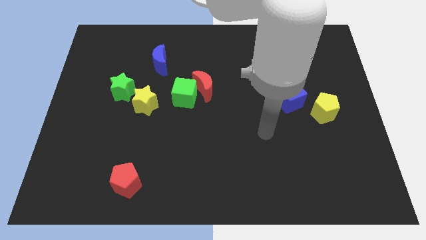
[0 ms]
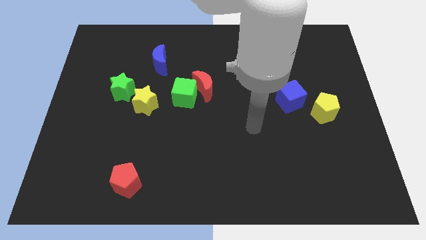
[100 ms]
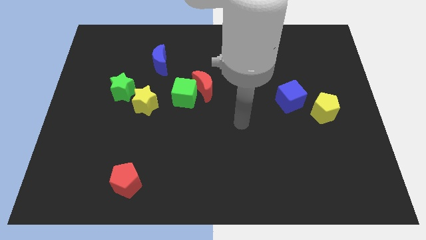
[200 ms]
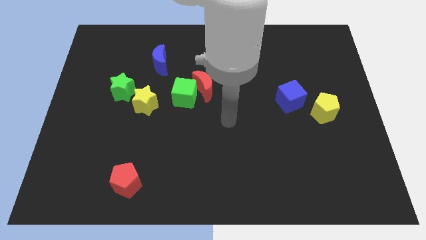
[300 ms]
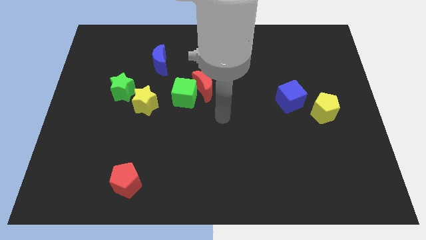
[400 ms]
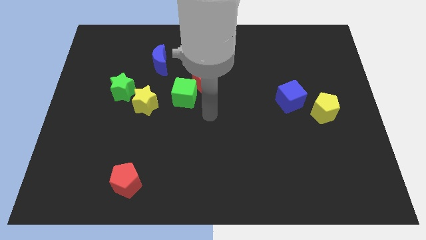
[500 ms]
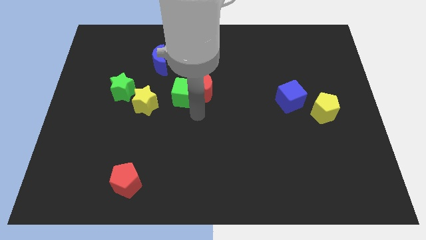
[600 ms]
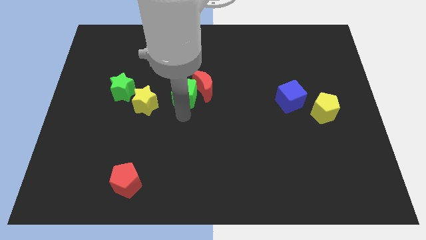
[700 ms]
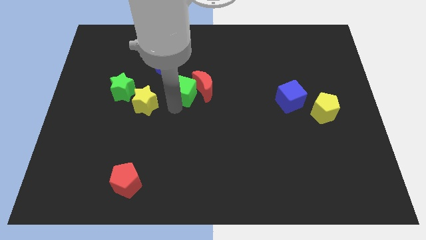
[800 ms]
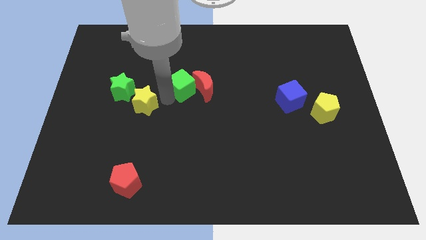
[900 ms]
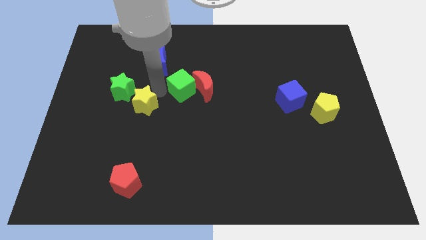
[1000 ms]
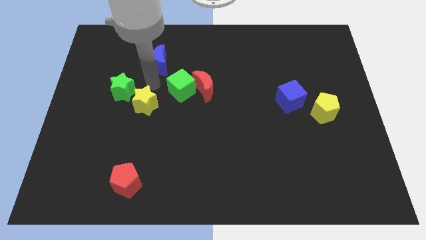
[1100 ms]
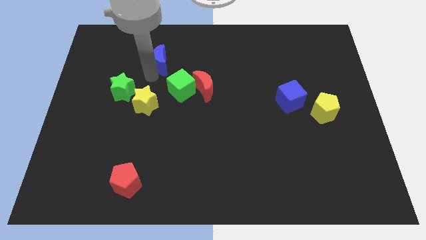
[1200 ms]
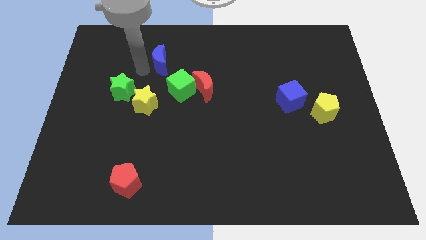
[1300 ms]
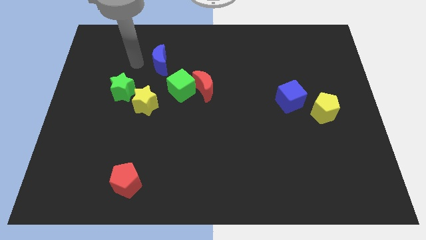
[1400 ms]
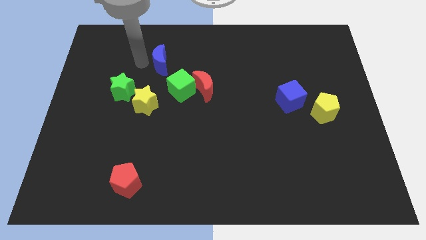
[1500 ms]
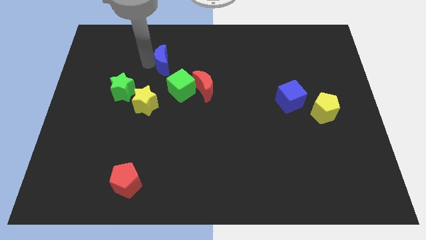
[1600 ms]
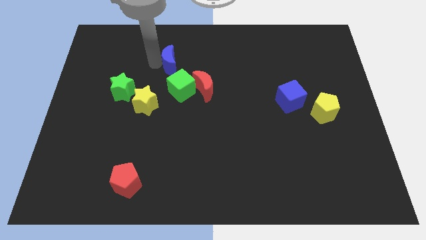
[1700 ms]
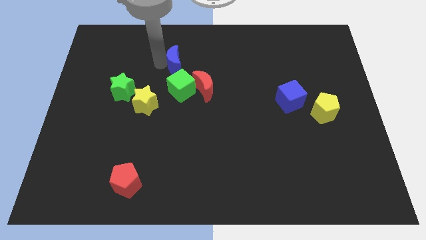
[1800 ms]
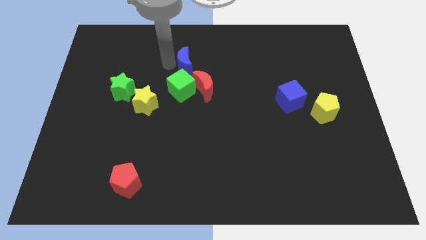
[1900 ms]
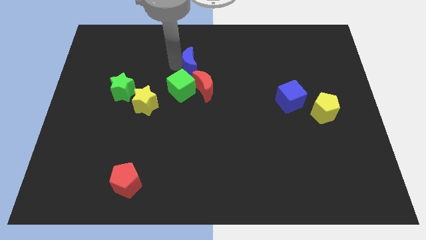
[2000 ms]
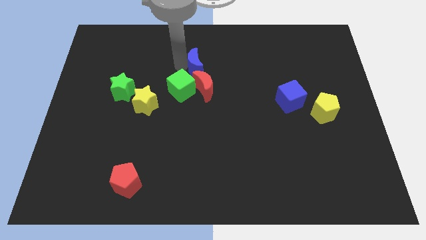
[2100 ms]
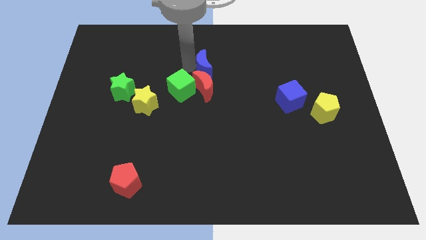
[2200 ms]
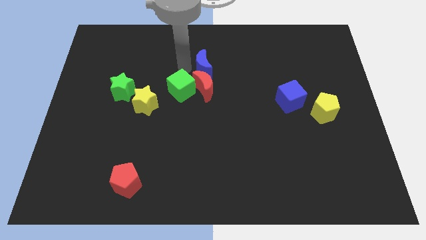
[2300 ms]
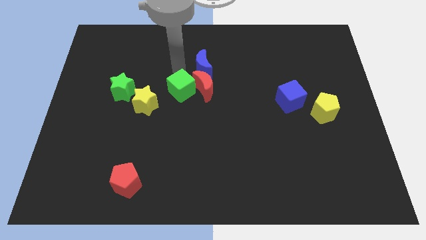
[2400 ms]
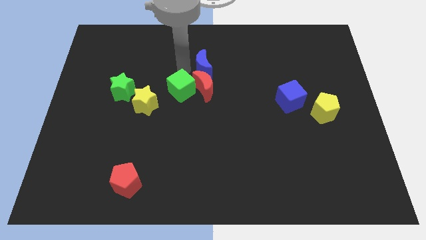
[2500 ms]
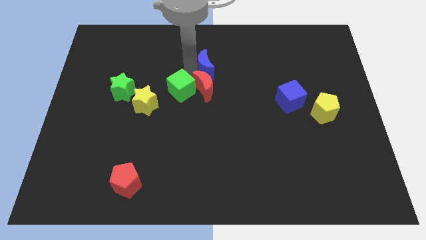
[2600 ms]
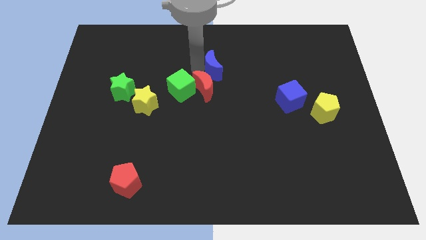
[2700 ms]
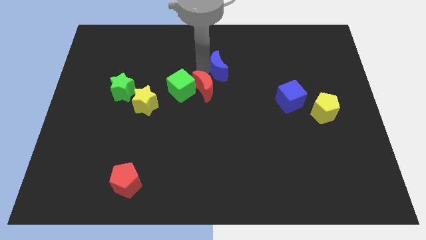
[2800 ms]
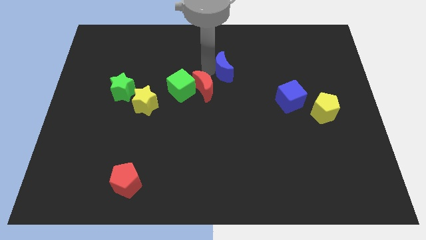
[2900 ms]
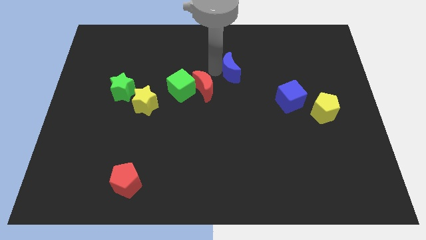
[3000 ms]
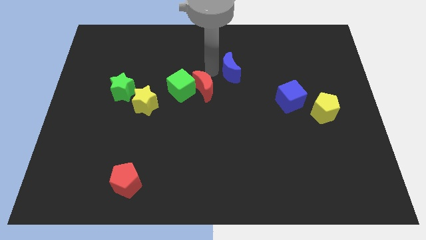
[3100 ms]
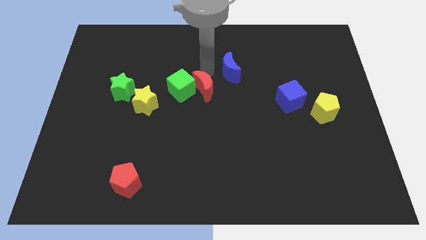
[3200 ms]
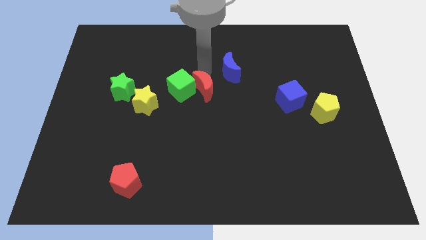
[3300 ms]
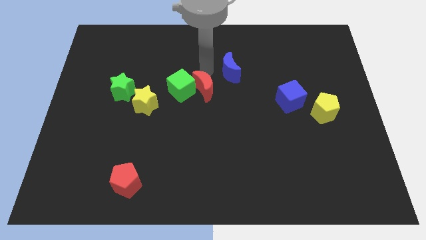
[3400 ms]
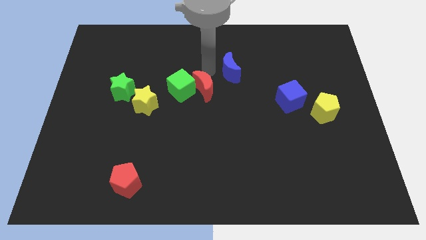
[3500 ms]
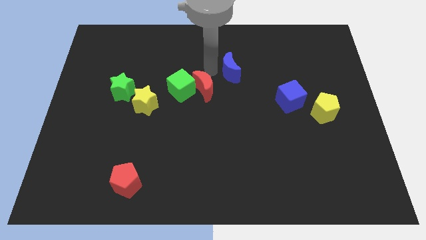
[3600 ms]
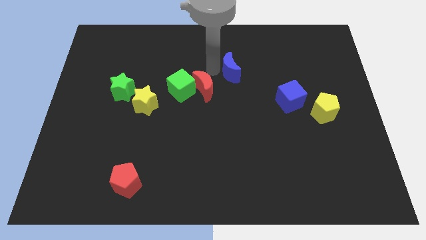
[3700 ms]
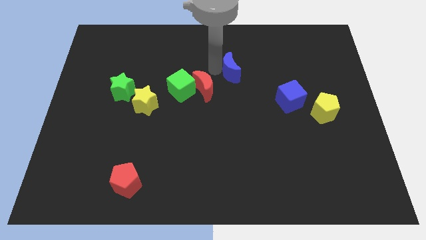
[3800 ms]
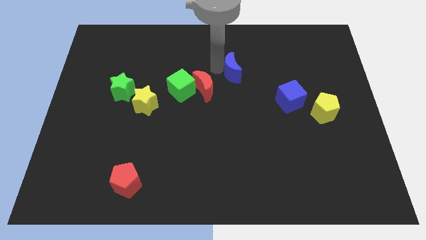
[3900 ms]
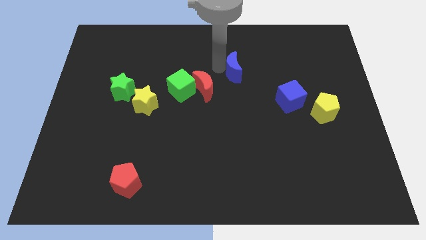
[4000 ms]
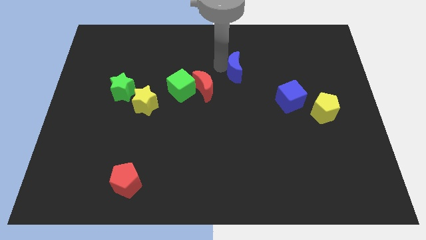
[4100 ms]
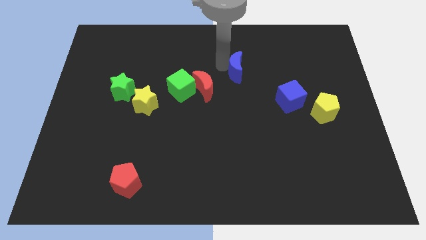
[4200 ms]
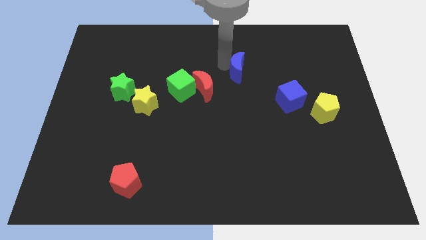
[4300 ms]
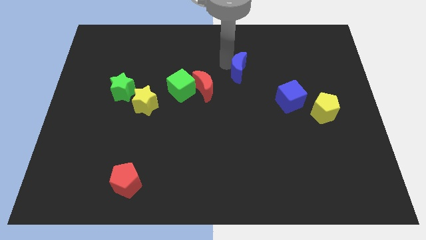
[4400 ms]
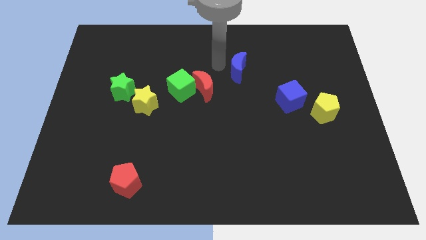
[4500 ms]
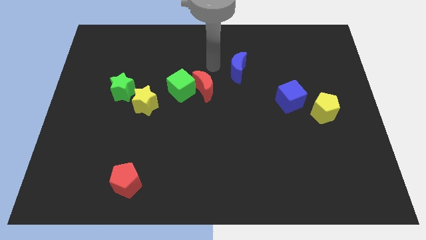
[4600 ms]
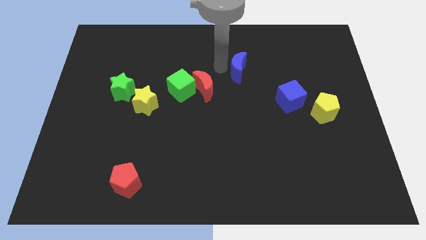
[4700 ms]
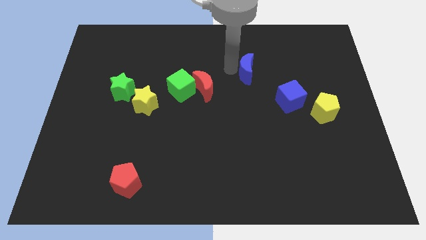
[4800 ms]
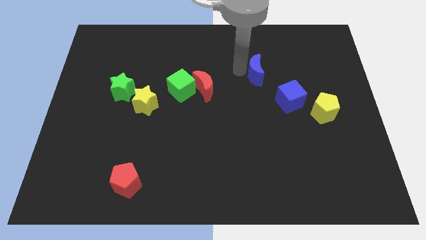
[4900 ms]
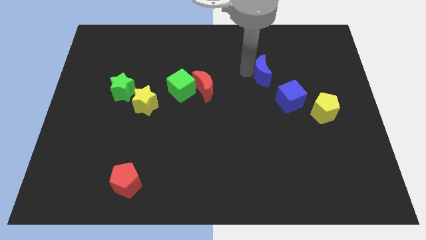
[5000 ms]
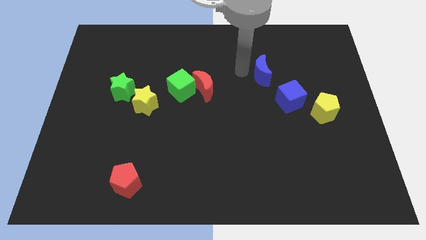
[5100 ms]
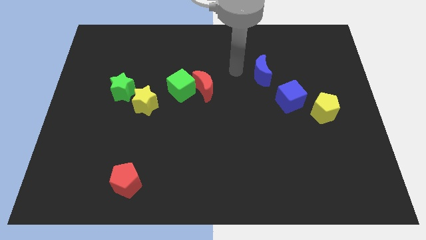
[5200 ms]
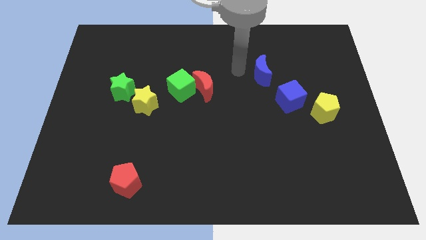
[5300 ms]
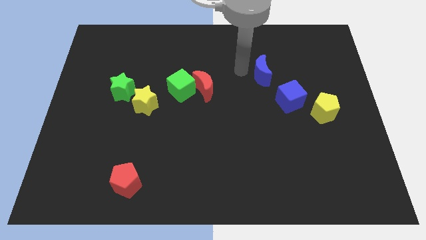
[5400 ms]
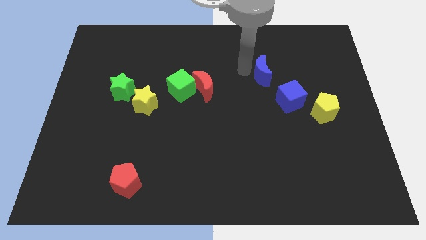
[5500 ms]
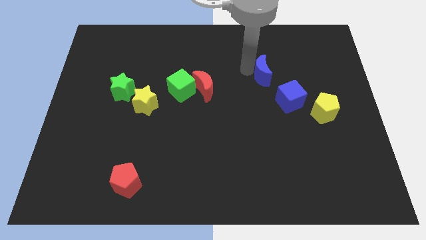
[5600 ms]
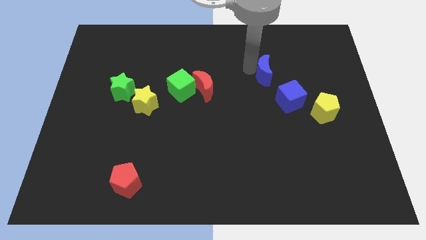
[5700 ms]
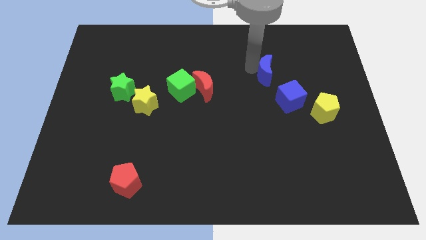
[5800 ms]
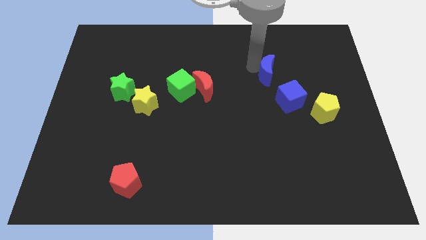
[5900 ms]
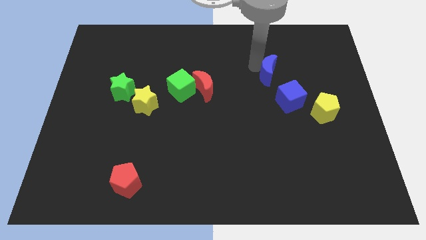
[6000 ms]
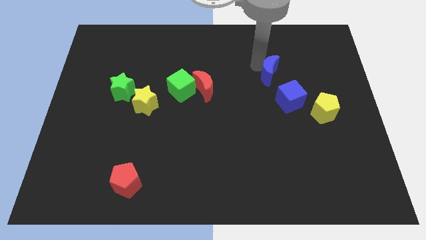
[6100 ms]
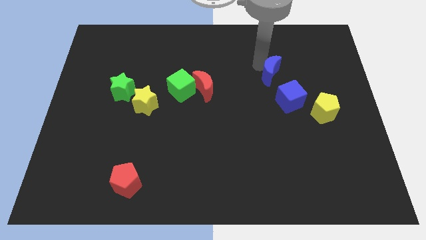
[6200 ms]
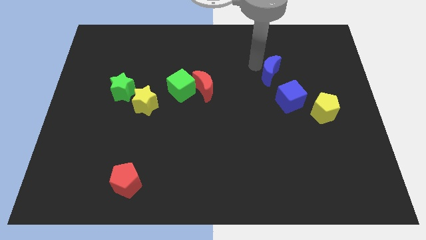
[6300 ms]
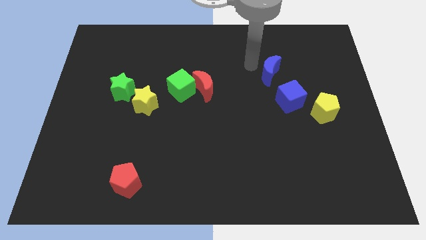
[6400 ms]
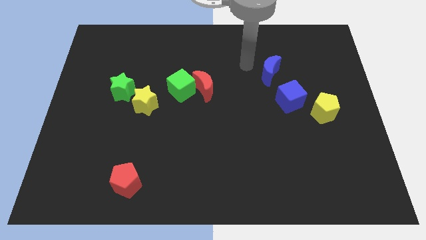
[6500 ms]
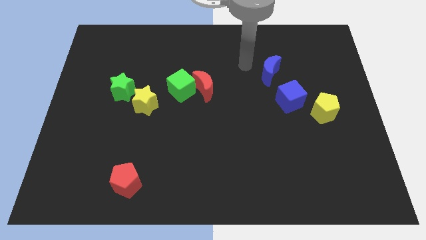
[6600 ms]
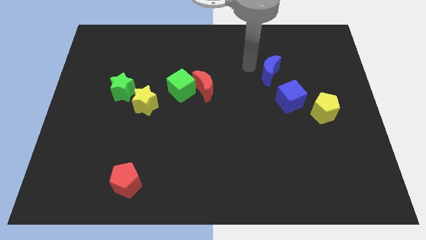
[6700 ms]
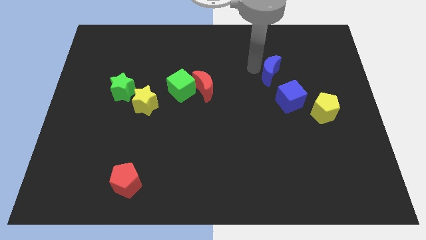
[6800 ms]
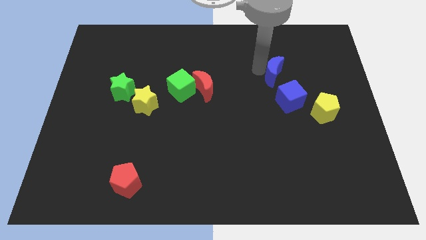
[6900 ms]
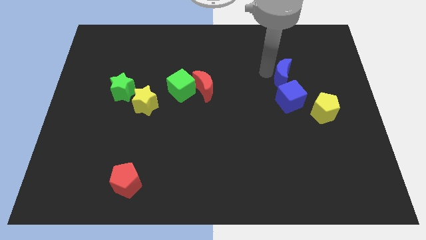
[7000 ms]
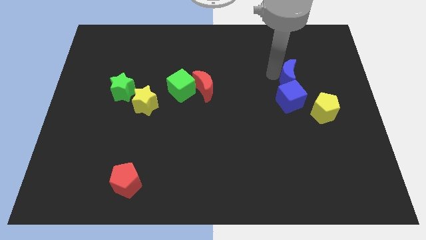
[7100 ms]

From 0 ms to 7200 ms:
slide the blue moon diagonally up and to the right of the blue cube
